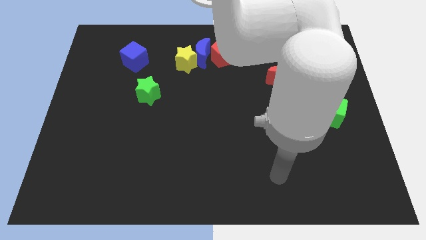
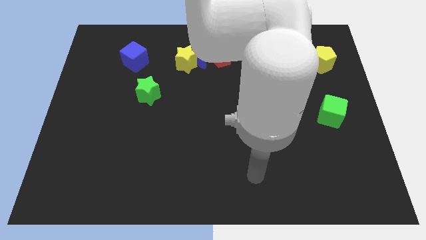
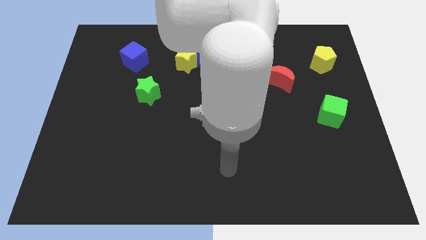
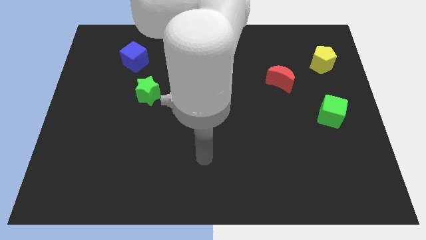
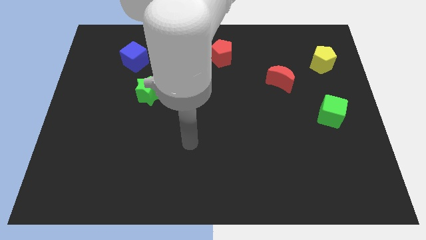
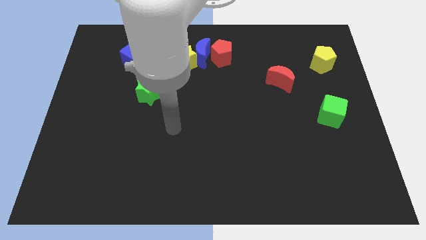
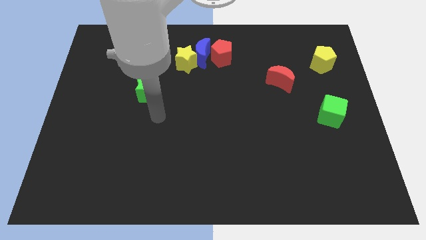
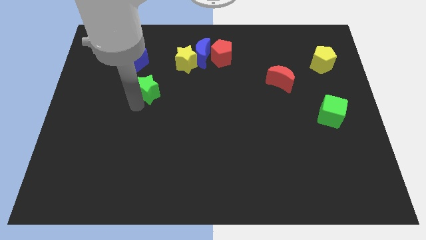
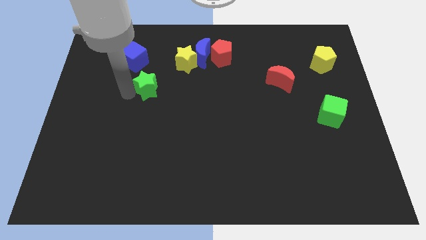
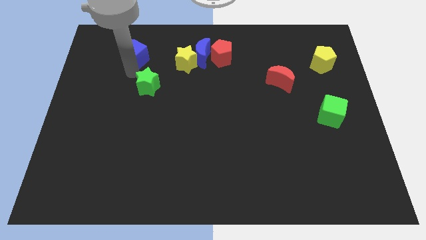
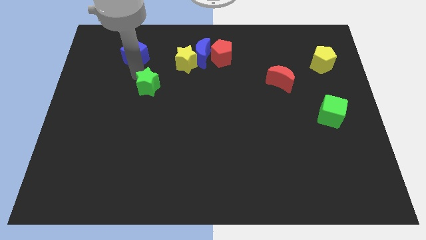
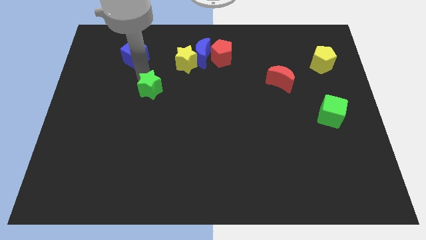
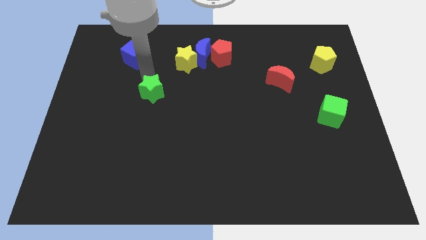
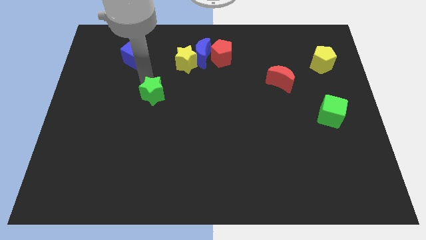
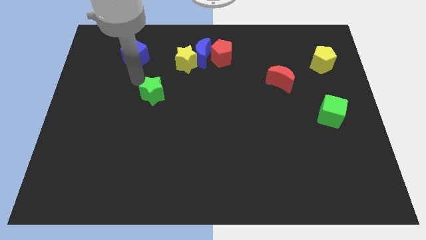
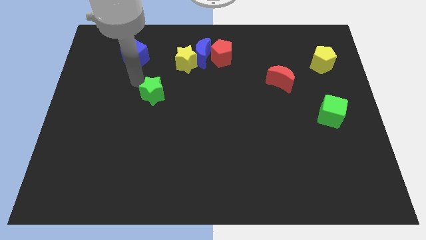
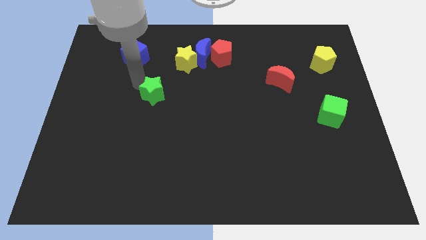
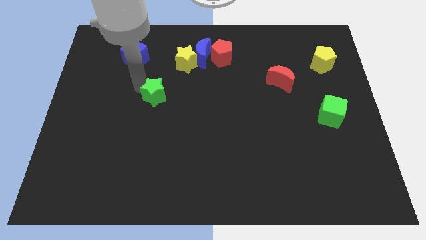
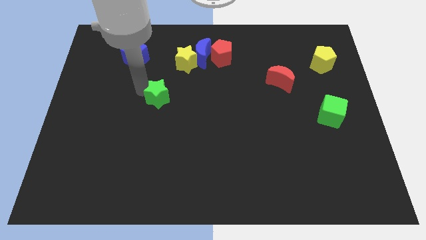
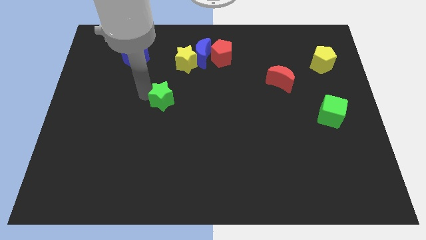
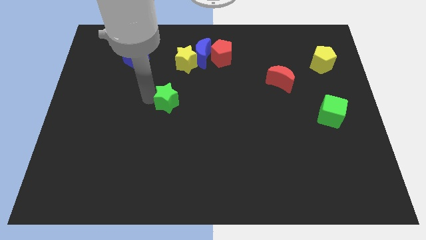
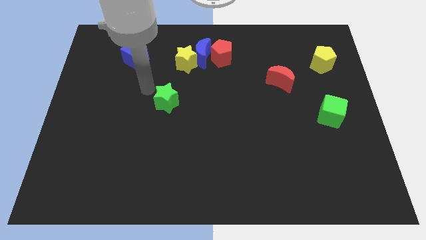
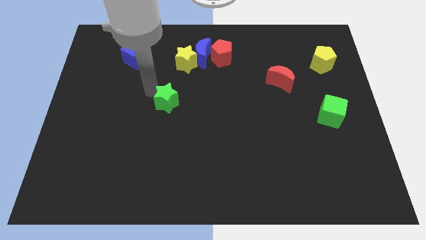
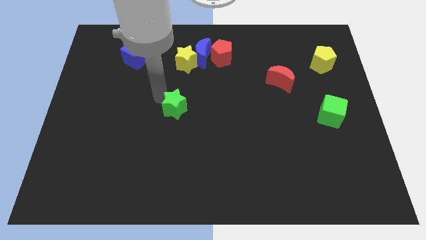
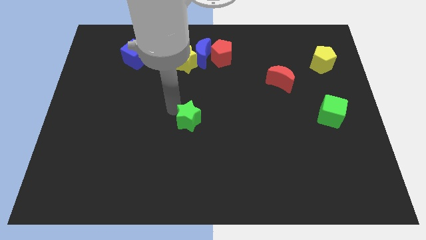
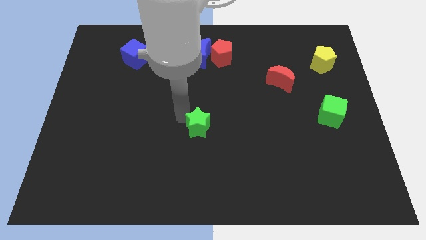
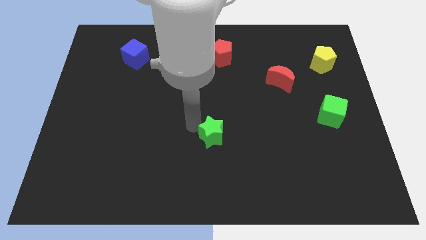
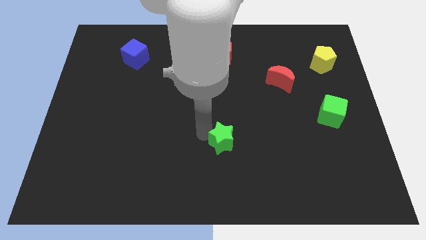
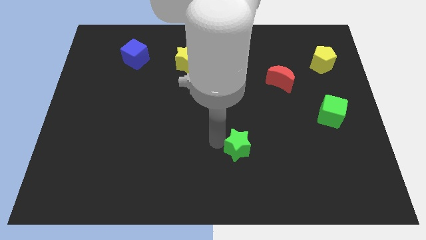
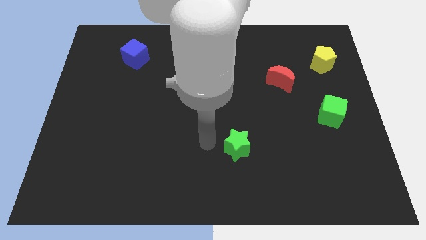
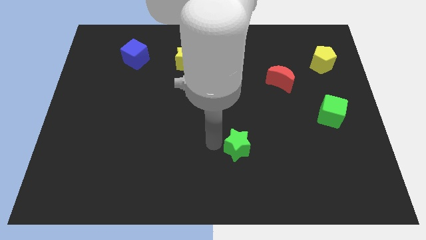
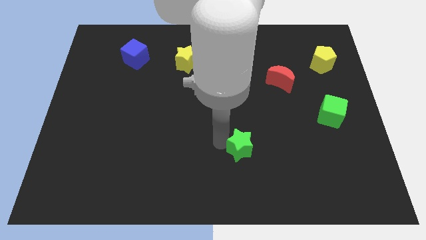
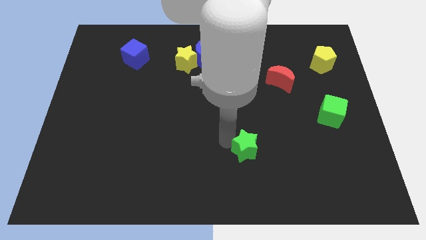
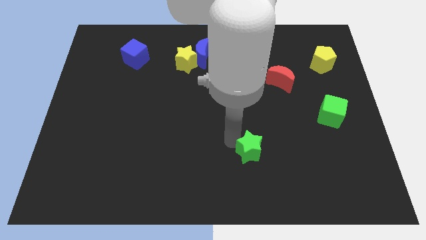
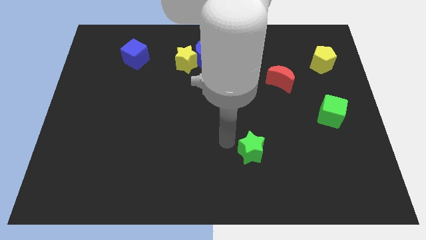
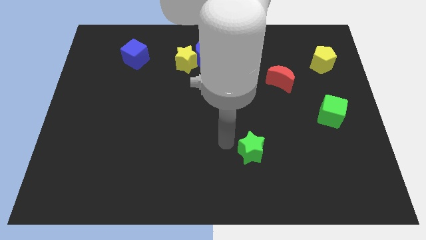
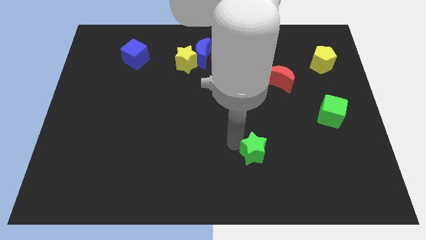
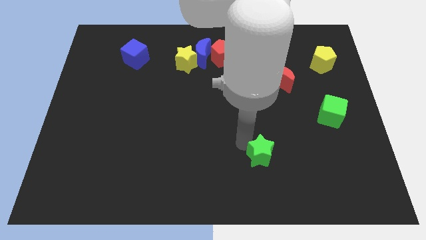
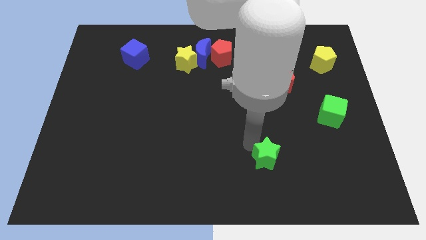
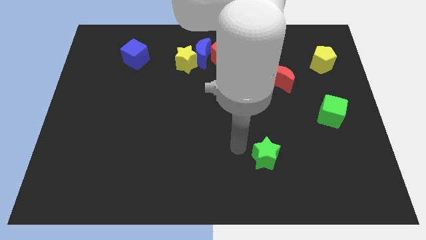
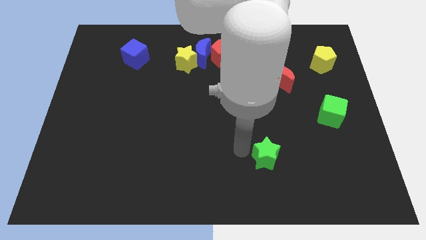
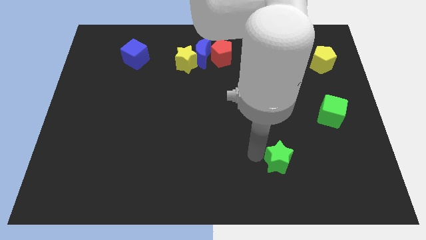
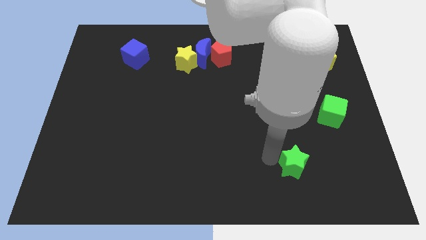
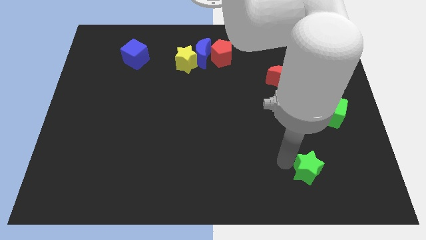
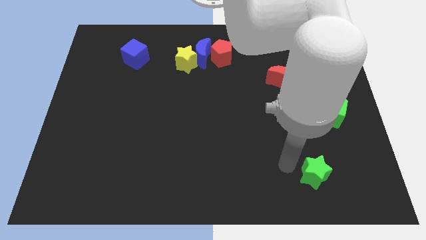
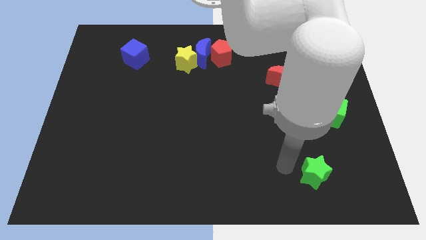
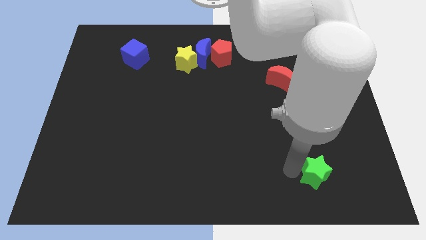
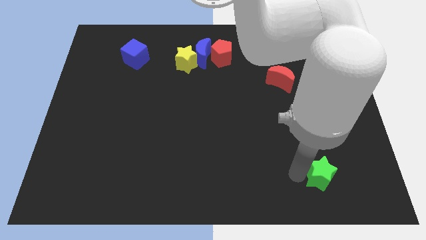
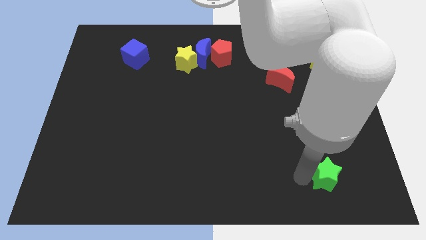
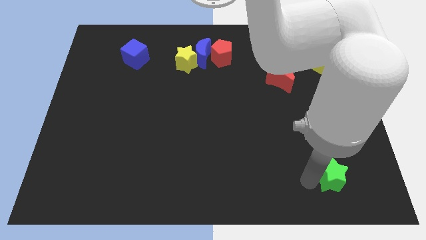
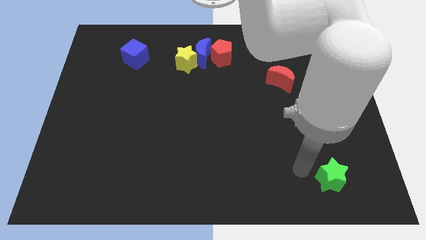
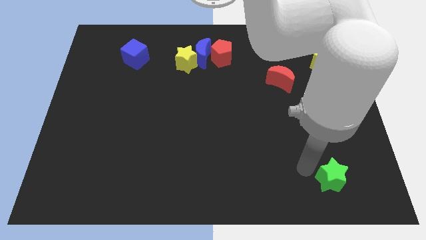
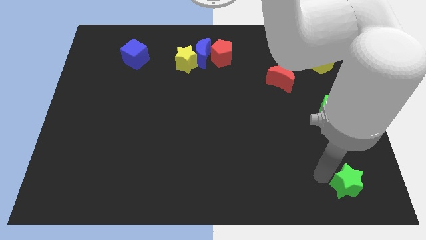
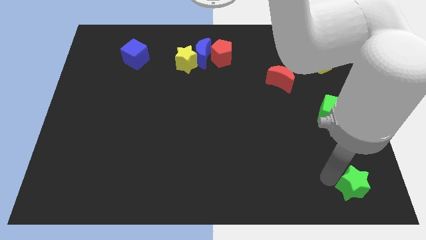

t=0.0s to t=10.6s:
move the green star to the bottom right corner
